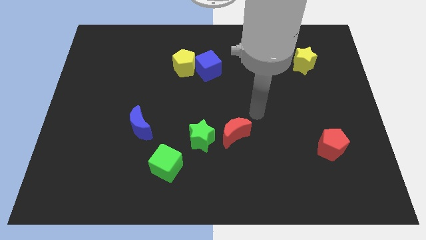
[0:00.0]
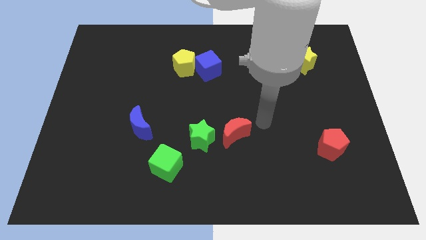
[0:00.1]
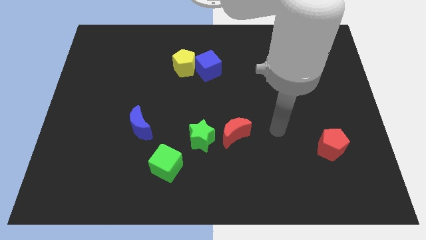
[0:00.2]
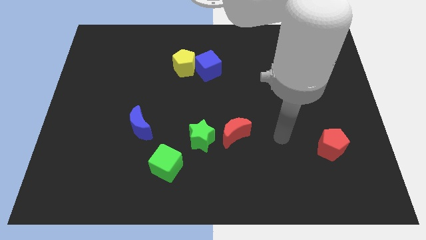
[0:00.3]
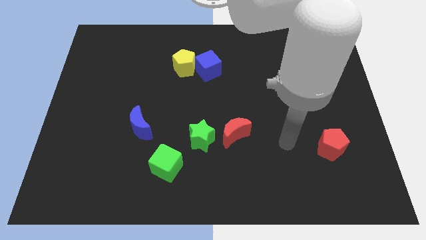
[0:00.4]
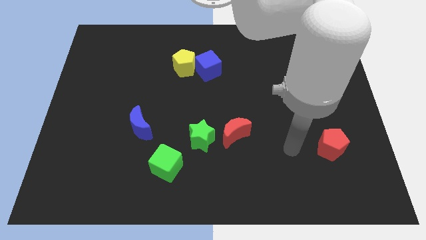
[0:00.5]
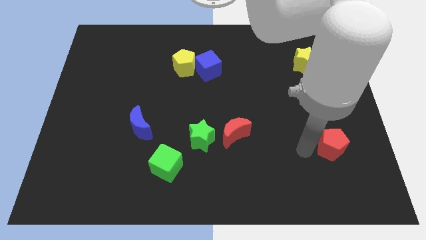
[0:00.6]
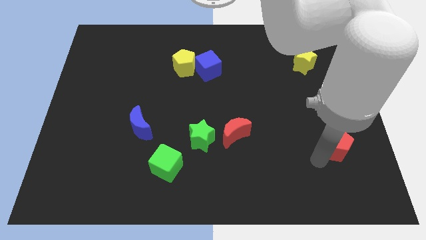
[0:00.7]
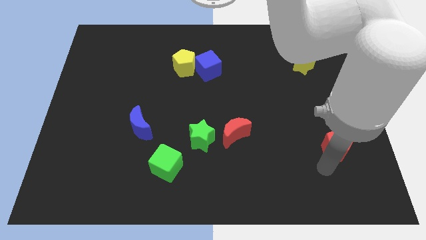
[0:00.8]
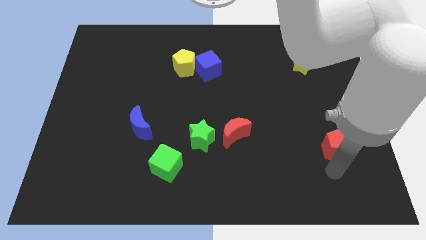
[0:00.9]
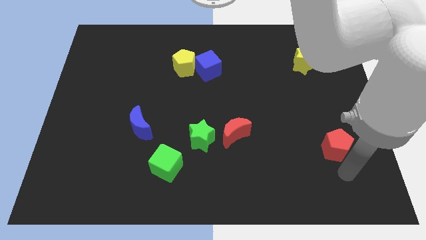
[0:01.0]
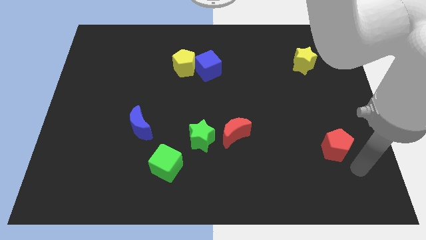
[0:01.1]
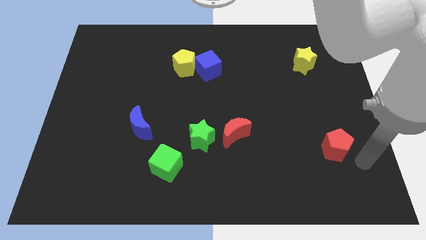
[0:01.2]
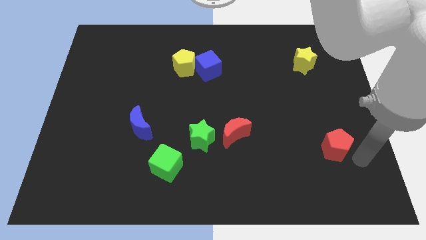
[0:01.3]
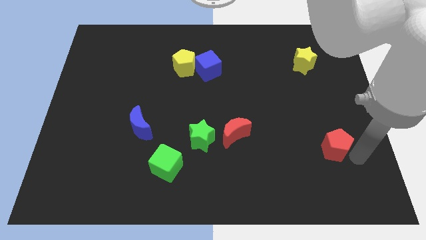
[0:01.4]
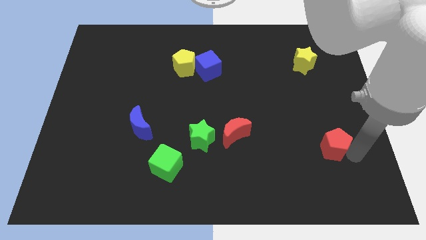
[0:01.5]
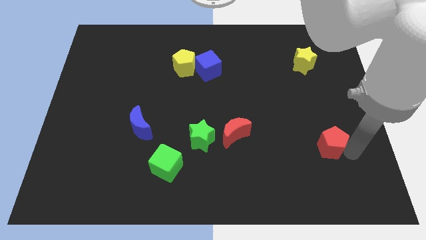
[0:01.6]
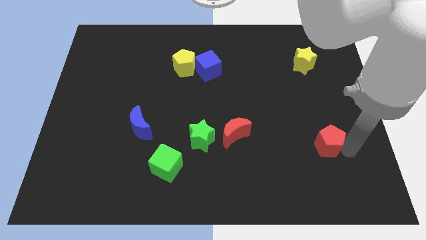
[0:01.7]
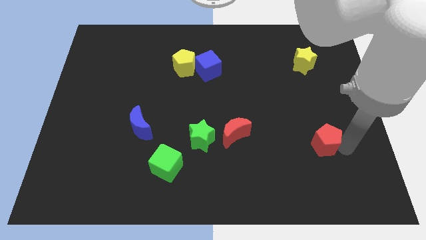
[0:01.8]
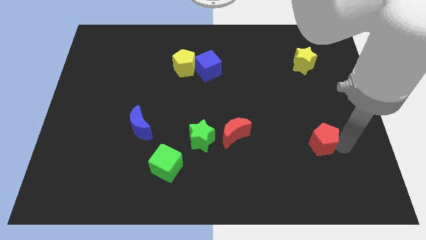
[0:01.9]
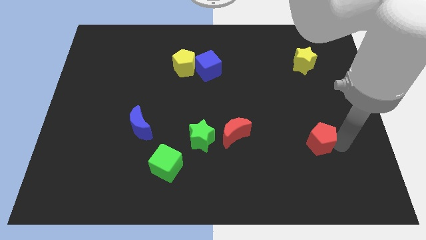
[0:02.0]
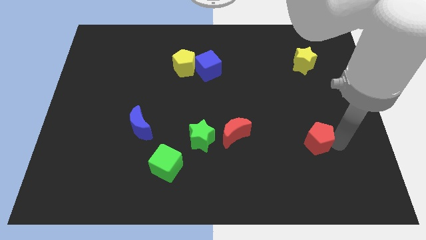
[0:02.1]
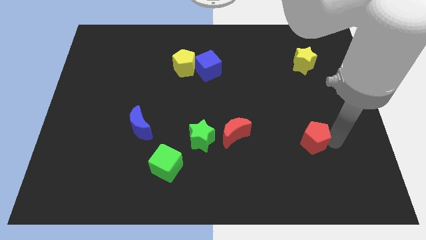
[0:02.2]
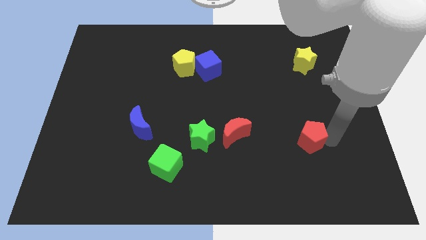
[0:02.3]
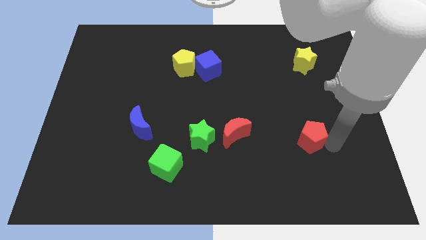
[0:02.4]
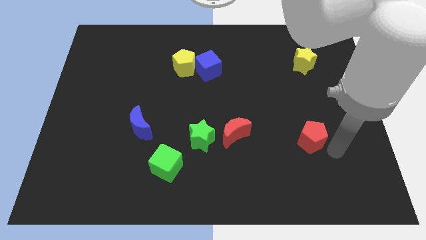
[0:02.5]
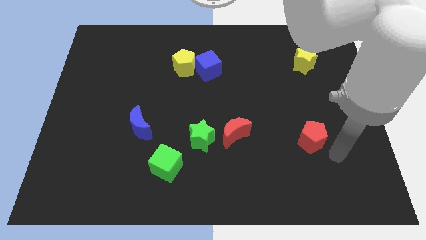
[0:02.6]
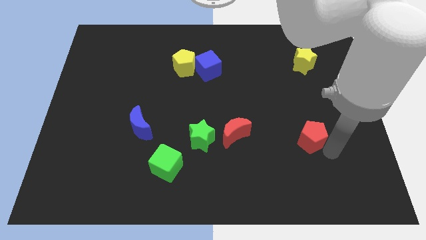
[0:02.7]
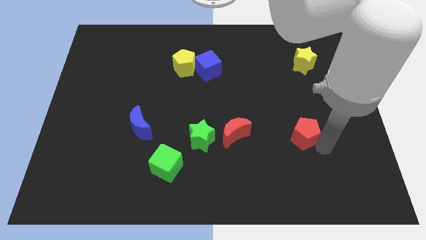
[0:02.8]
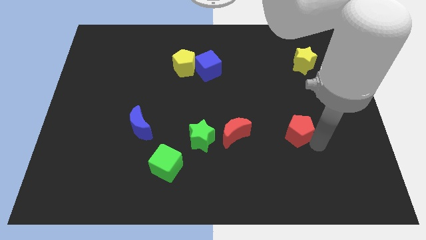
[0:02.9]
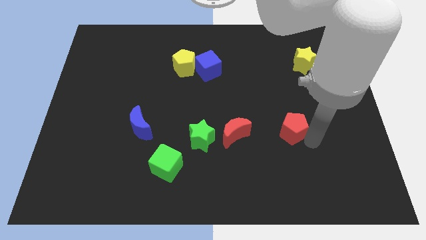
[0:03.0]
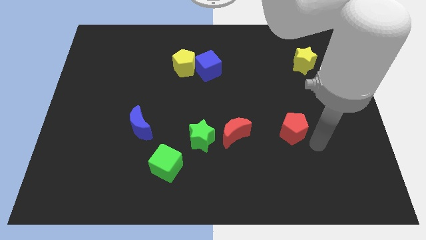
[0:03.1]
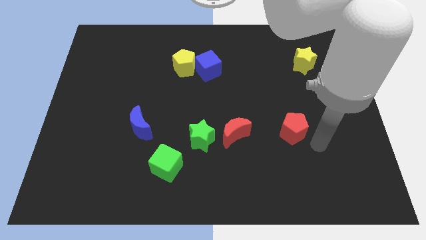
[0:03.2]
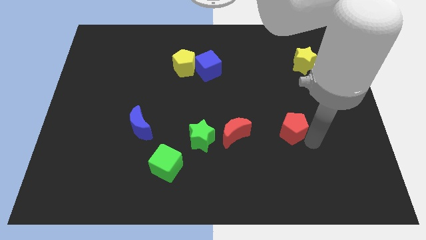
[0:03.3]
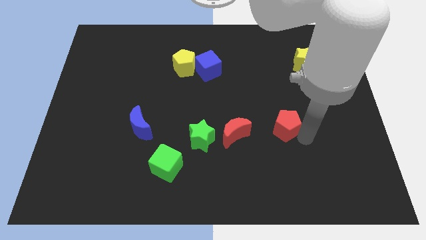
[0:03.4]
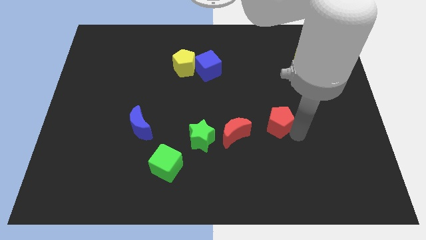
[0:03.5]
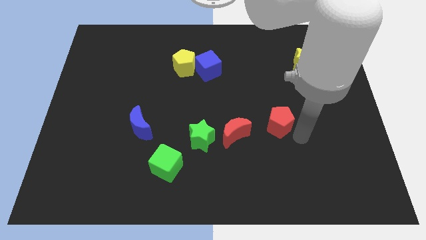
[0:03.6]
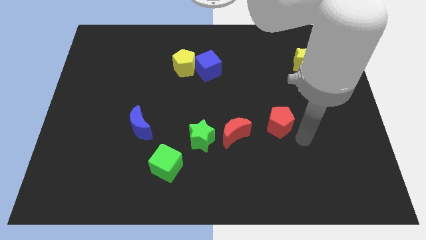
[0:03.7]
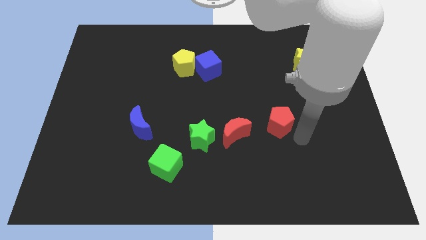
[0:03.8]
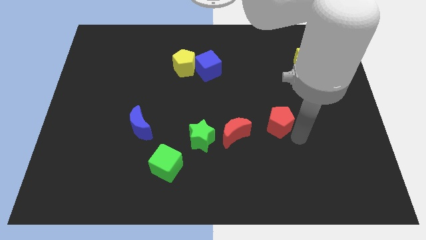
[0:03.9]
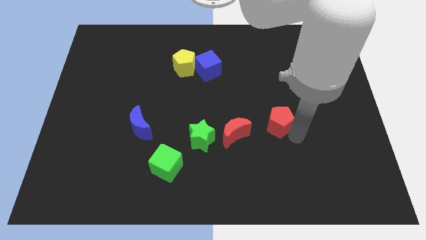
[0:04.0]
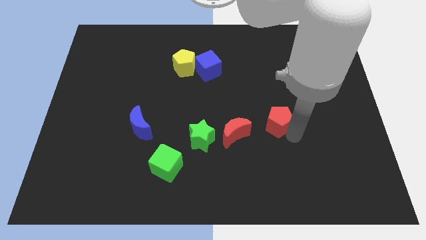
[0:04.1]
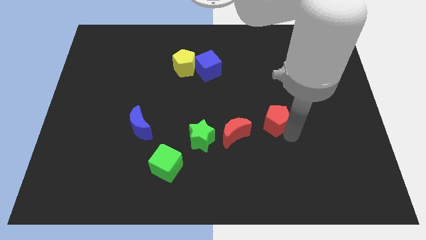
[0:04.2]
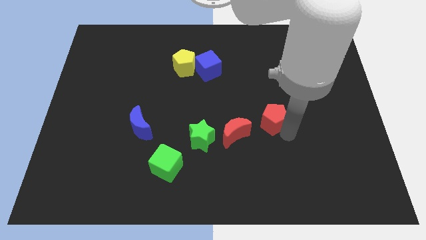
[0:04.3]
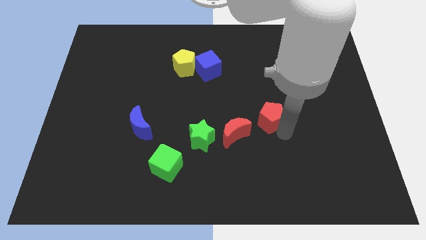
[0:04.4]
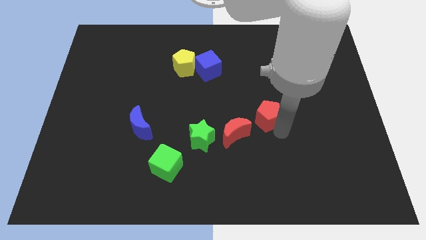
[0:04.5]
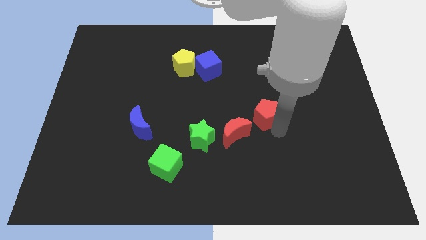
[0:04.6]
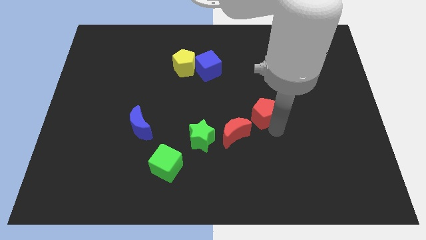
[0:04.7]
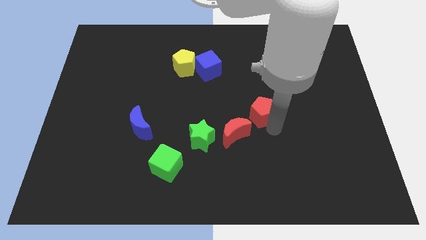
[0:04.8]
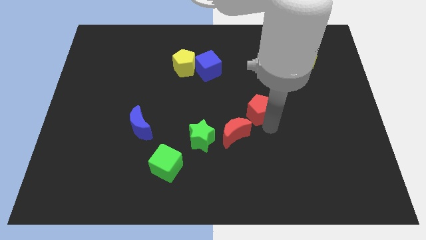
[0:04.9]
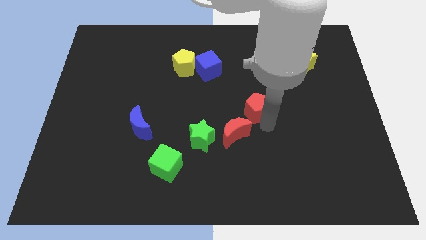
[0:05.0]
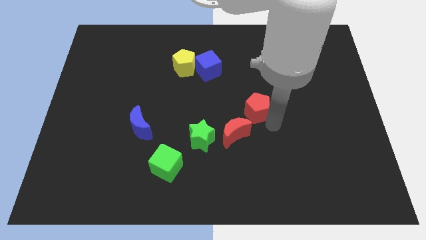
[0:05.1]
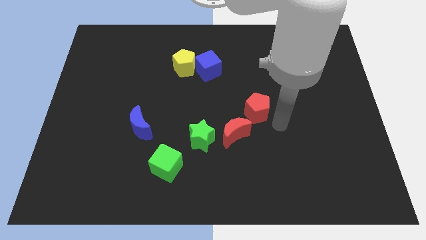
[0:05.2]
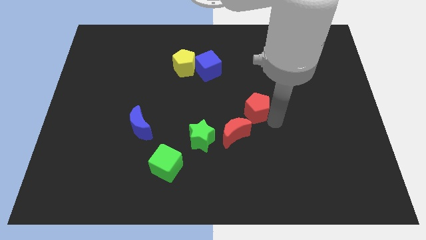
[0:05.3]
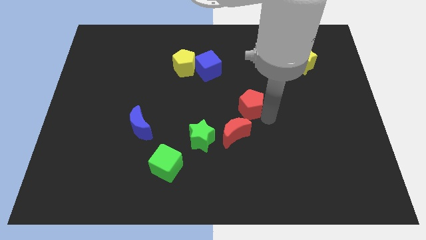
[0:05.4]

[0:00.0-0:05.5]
push the red pentagon to the top of the red moon

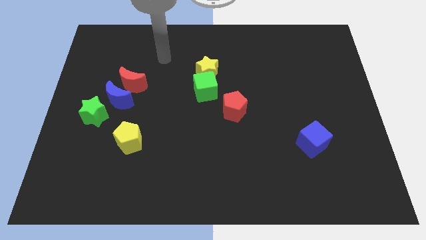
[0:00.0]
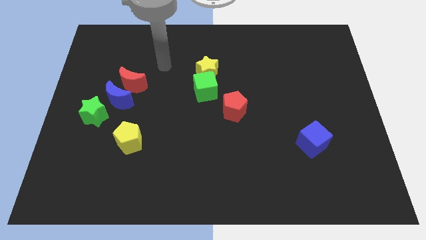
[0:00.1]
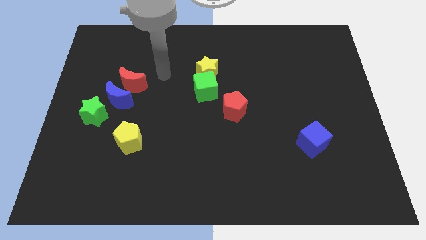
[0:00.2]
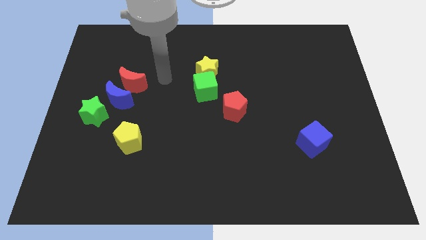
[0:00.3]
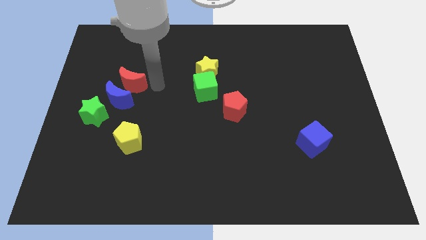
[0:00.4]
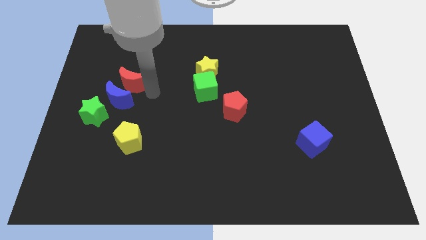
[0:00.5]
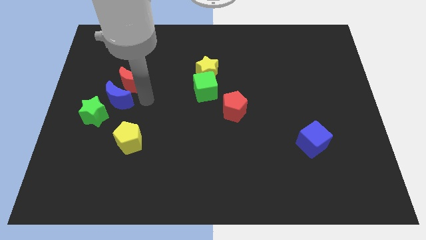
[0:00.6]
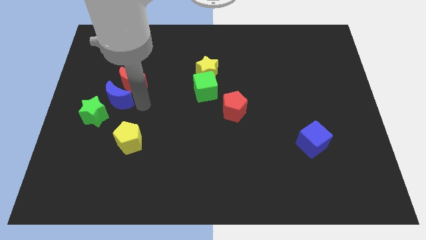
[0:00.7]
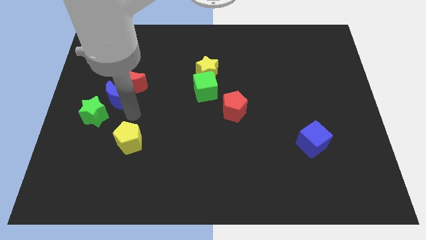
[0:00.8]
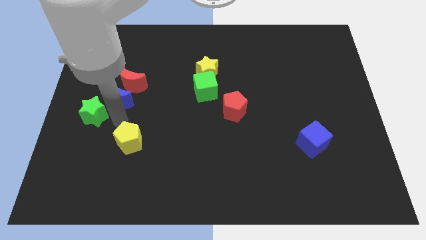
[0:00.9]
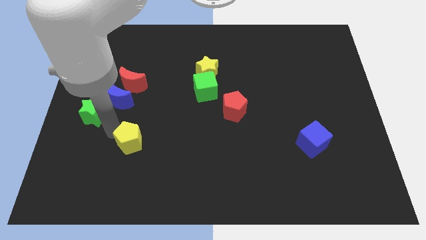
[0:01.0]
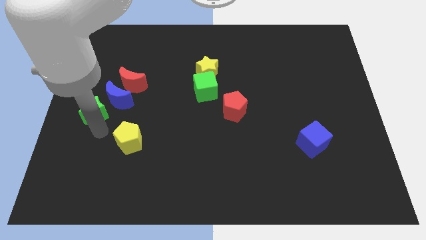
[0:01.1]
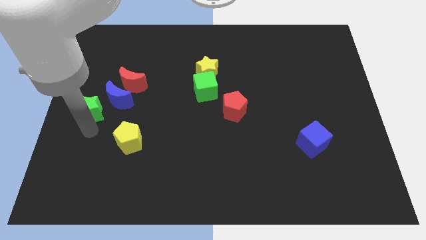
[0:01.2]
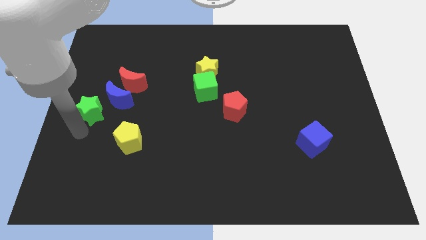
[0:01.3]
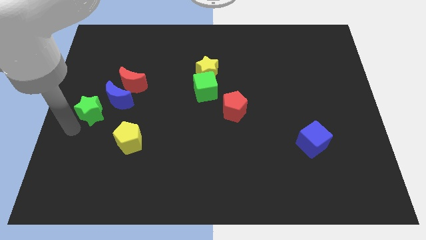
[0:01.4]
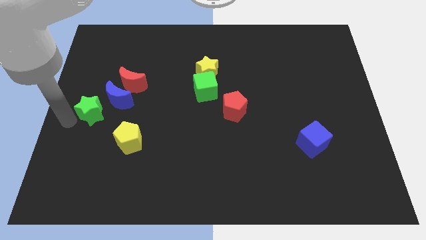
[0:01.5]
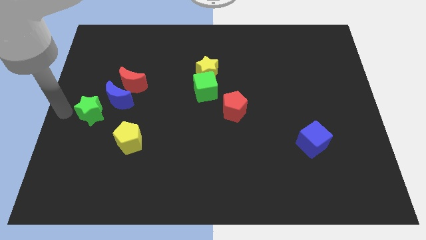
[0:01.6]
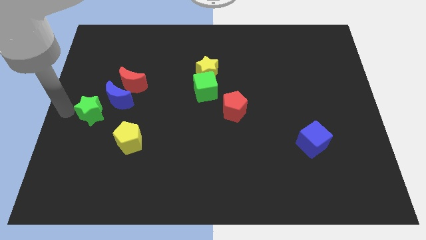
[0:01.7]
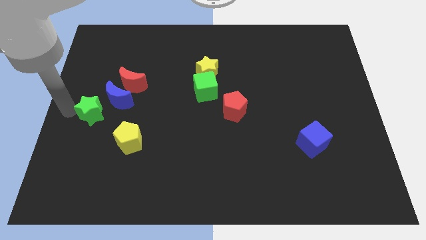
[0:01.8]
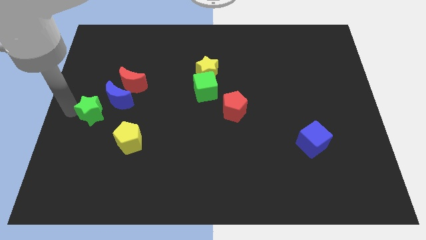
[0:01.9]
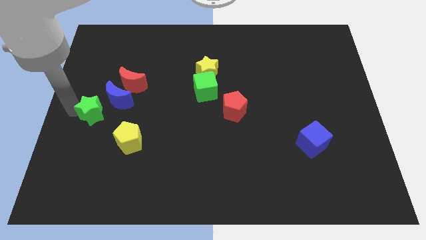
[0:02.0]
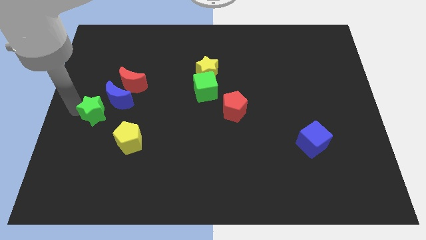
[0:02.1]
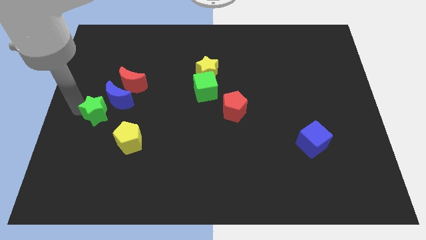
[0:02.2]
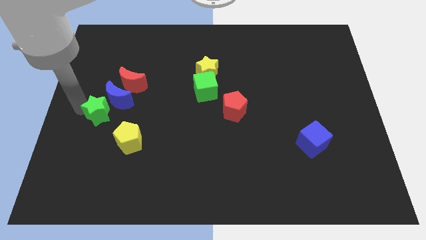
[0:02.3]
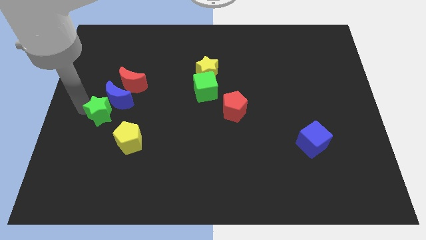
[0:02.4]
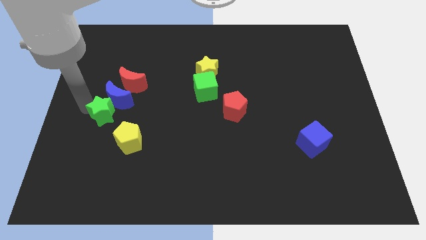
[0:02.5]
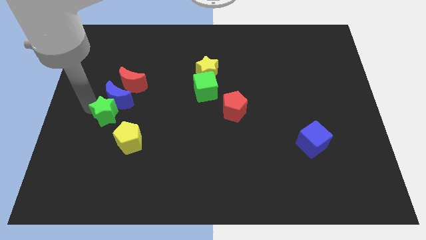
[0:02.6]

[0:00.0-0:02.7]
slide the green star below the red moon

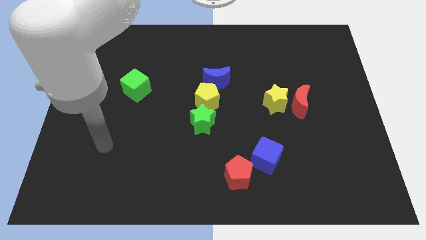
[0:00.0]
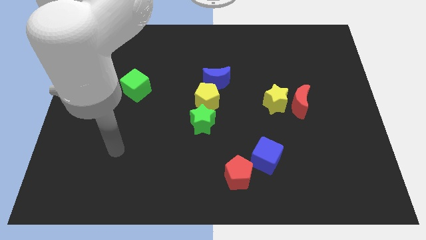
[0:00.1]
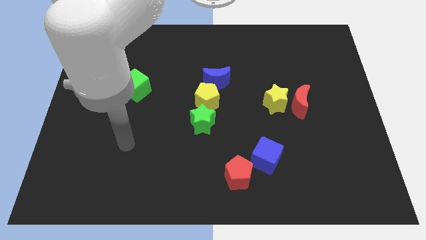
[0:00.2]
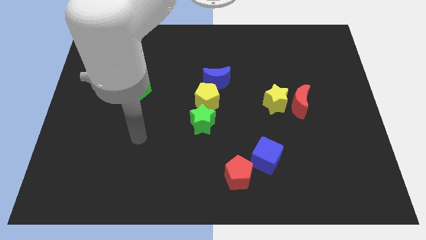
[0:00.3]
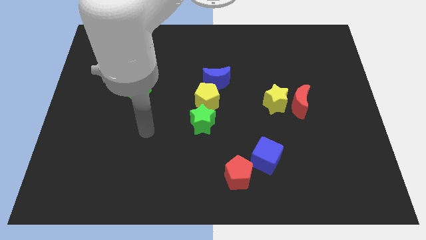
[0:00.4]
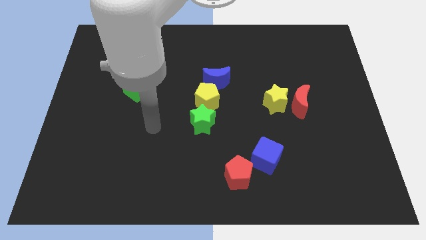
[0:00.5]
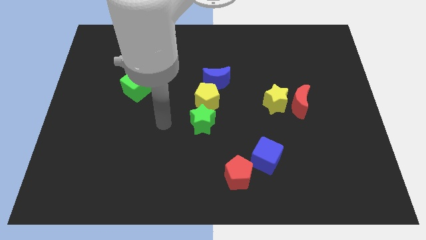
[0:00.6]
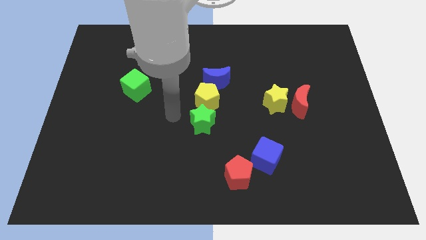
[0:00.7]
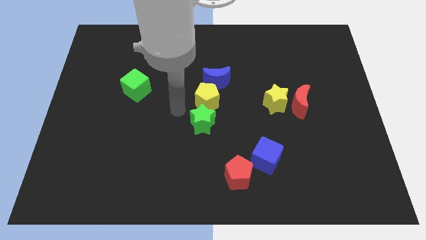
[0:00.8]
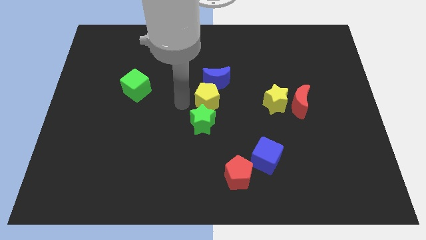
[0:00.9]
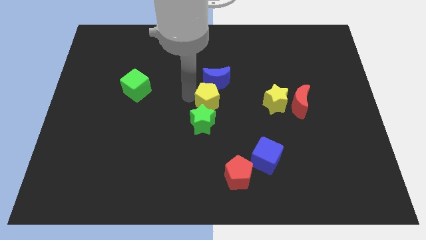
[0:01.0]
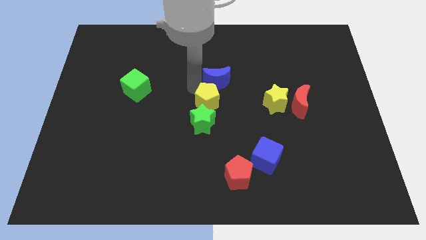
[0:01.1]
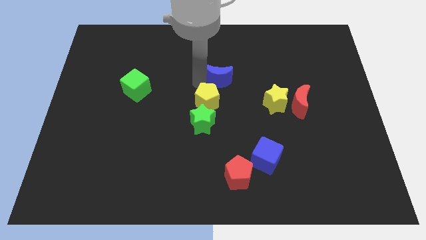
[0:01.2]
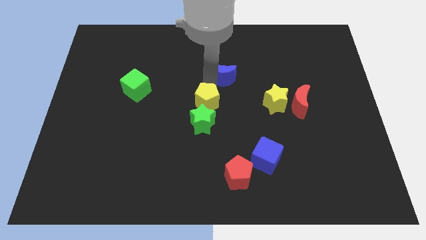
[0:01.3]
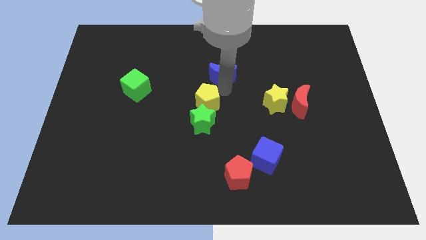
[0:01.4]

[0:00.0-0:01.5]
put the yellow pentagon diagonally up and to the left of the green star
